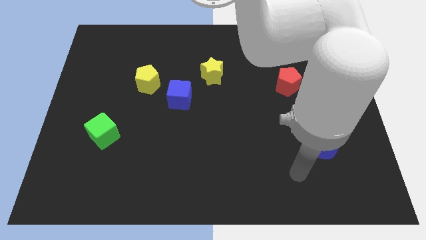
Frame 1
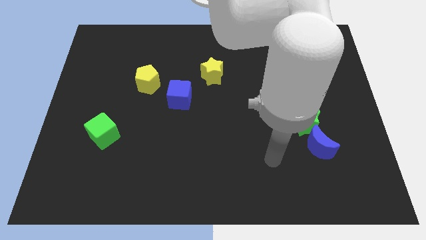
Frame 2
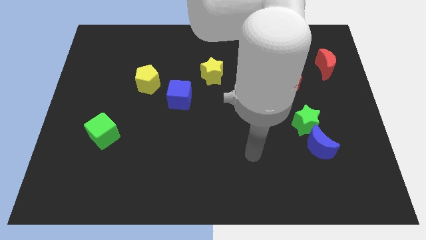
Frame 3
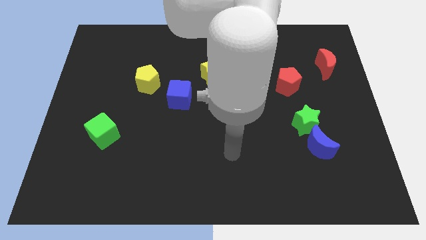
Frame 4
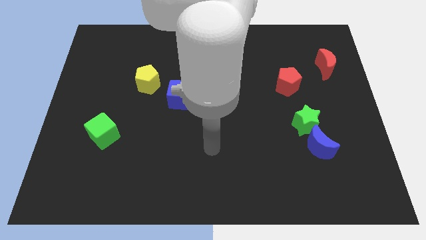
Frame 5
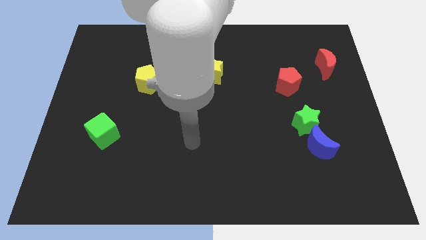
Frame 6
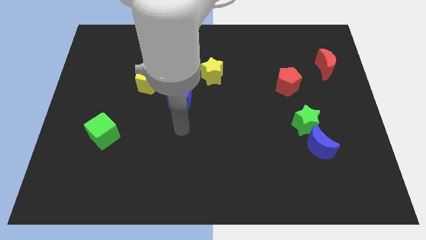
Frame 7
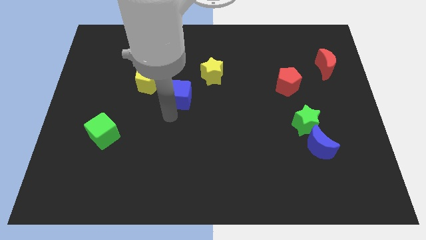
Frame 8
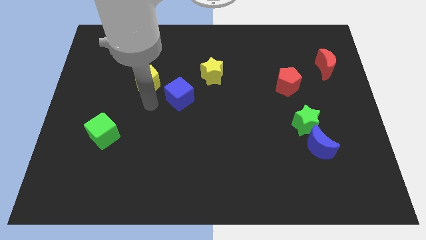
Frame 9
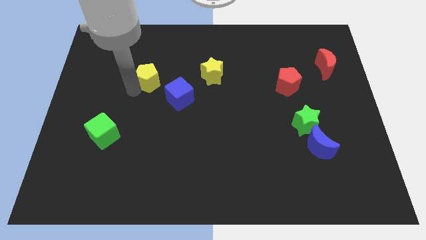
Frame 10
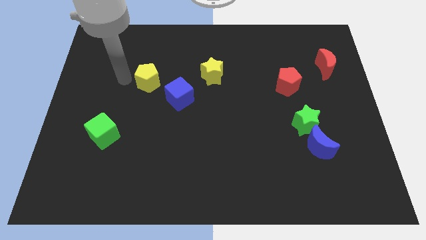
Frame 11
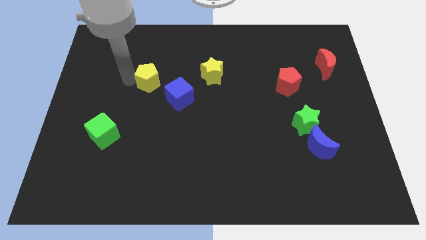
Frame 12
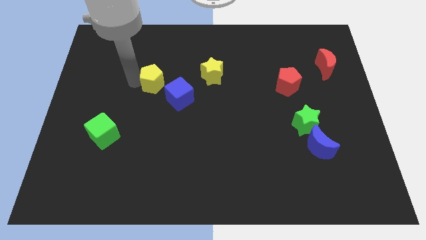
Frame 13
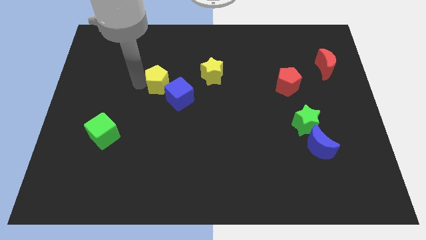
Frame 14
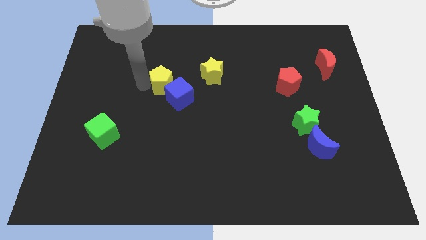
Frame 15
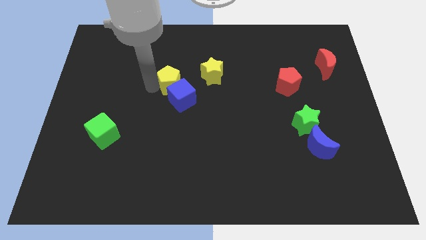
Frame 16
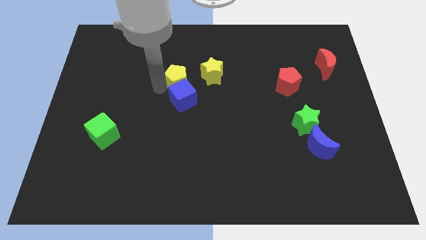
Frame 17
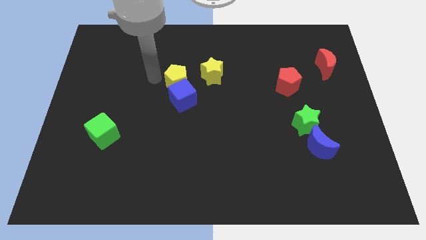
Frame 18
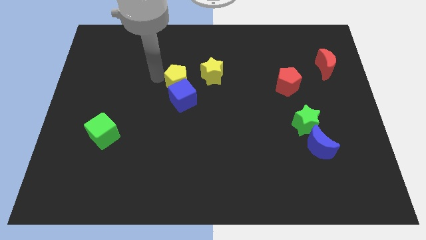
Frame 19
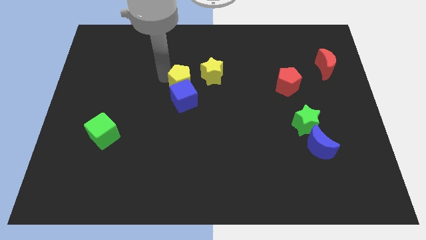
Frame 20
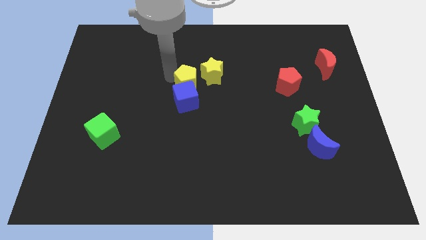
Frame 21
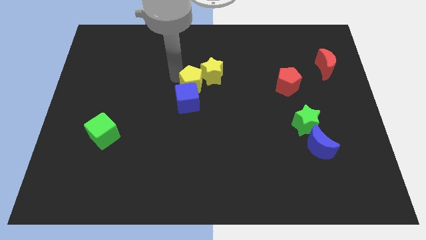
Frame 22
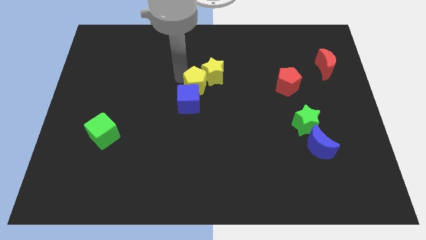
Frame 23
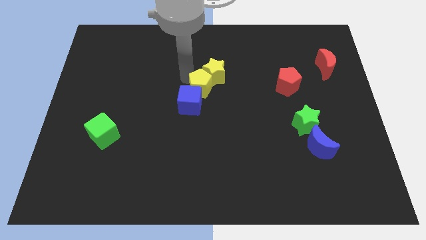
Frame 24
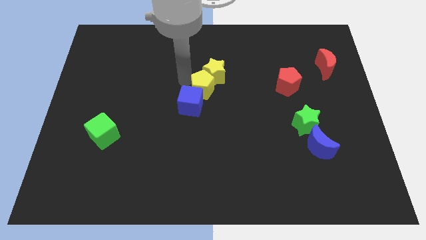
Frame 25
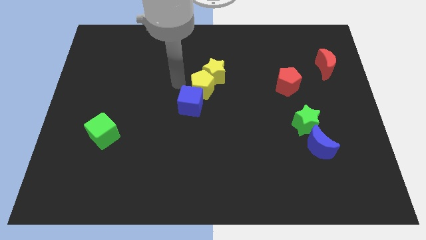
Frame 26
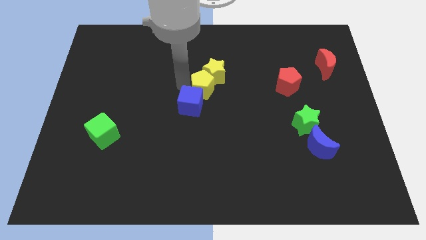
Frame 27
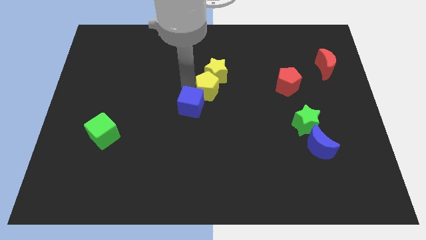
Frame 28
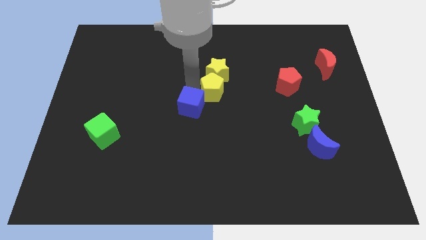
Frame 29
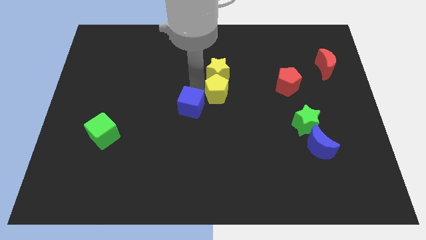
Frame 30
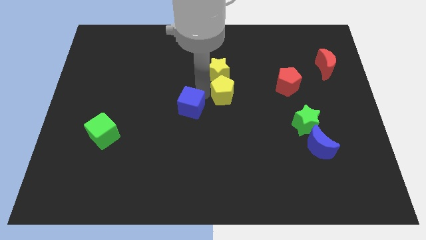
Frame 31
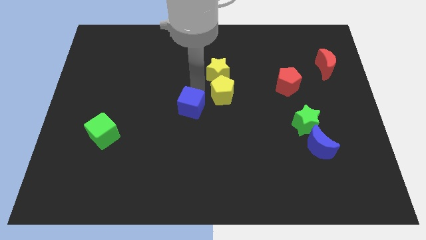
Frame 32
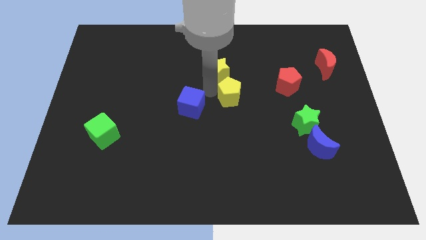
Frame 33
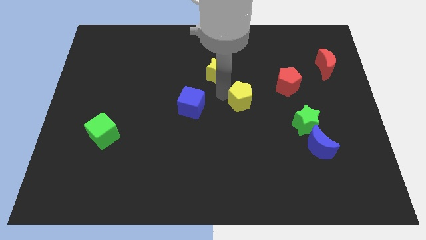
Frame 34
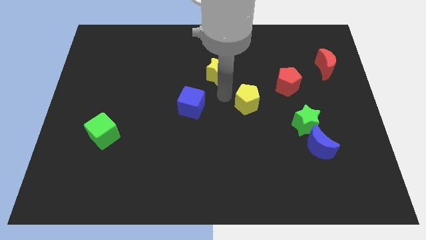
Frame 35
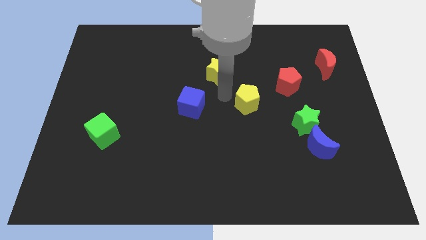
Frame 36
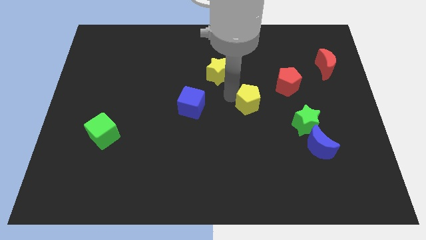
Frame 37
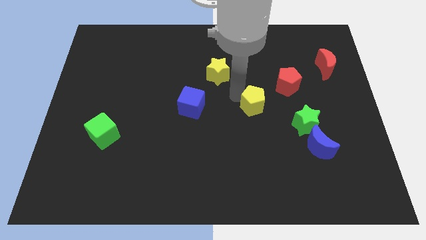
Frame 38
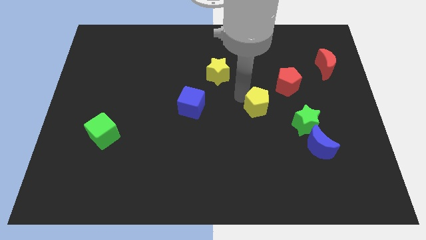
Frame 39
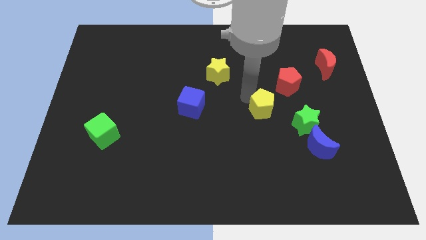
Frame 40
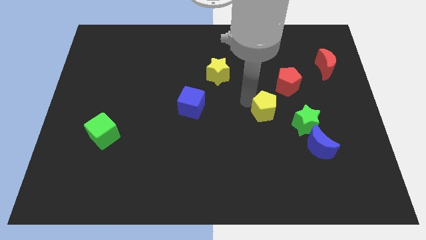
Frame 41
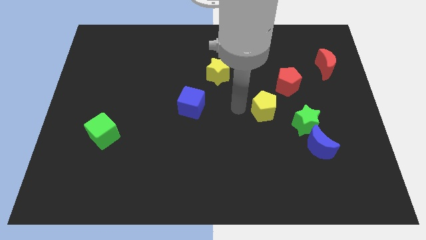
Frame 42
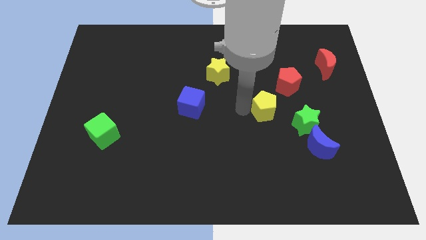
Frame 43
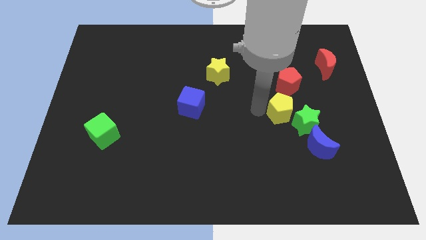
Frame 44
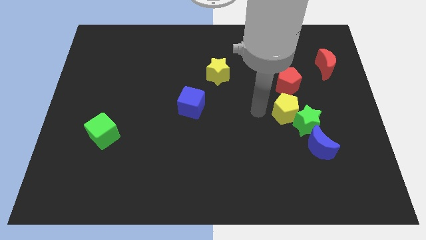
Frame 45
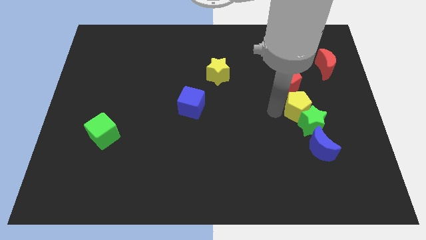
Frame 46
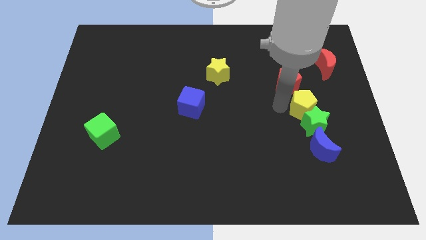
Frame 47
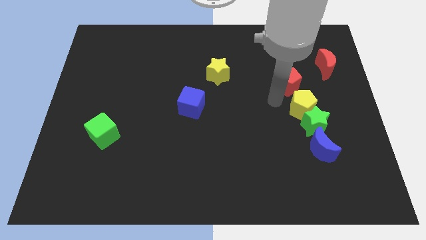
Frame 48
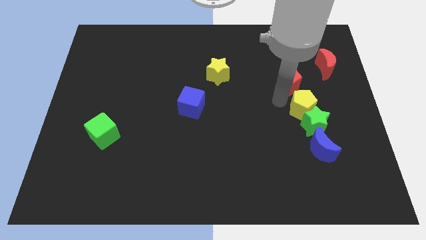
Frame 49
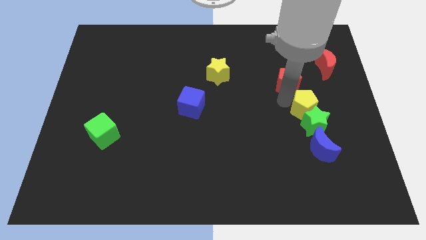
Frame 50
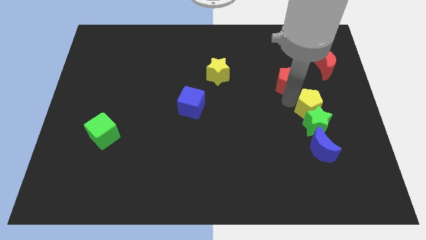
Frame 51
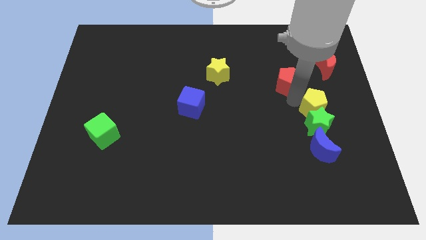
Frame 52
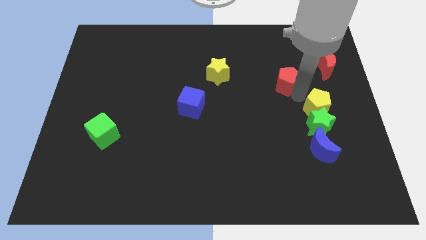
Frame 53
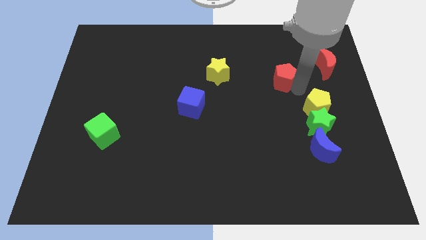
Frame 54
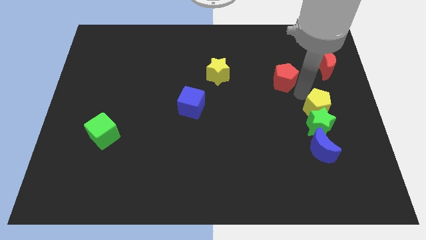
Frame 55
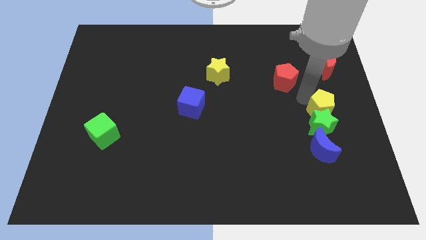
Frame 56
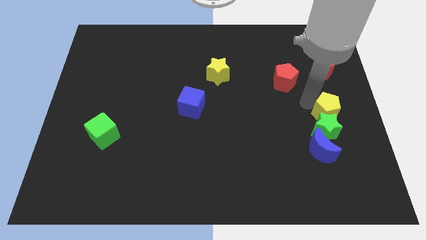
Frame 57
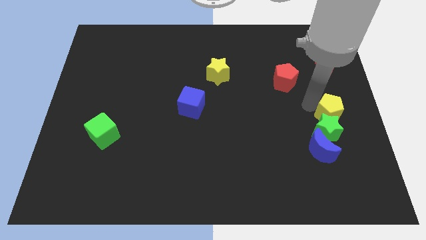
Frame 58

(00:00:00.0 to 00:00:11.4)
put the yellow pentagon diagonally up and to the right of the blue moon
